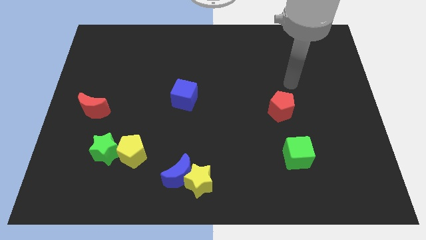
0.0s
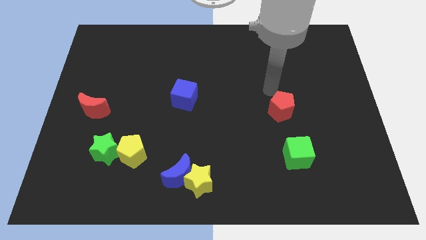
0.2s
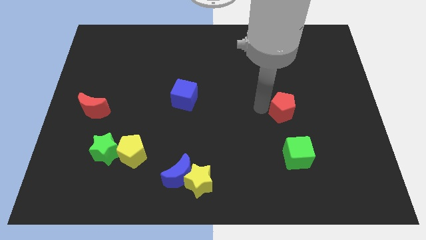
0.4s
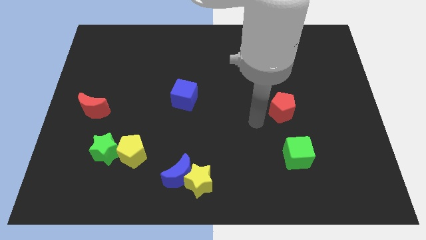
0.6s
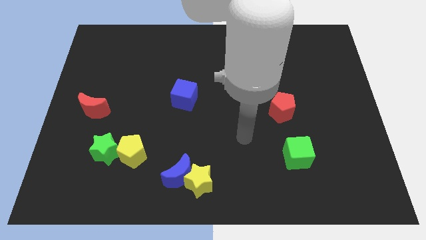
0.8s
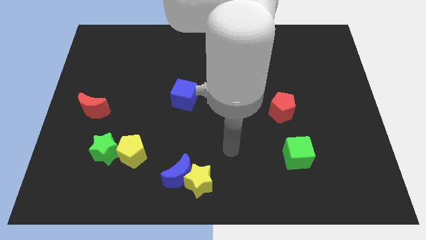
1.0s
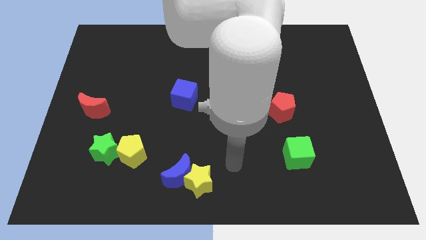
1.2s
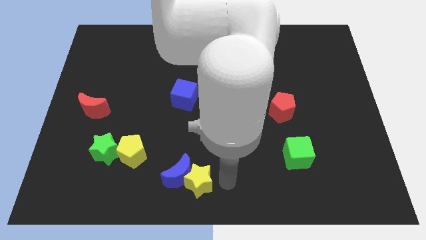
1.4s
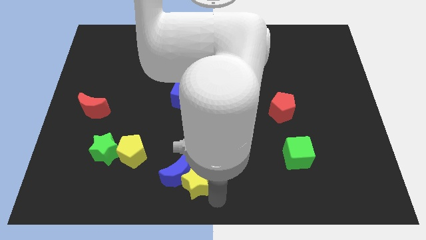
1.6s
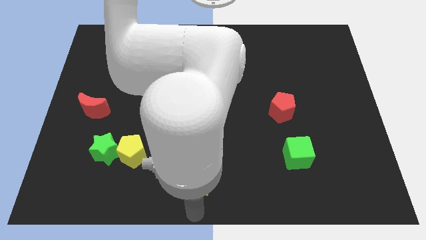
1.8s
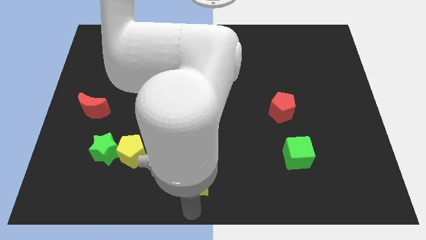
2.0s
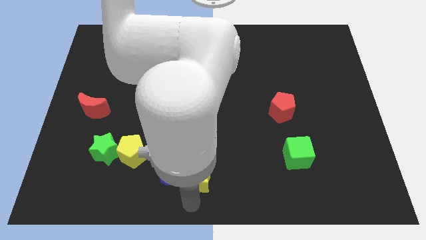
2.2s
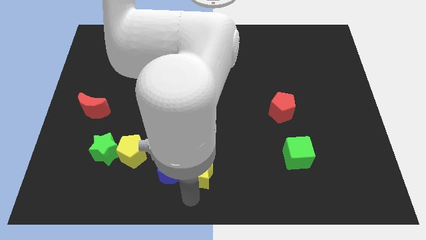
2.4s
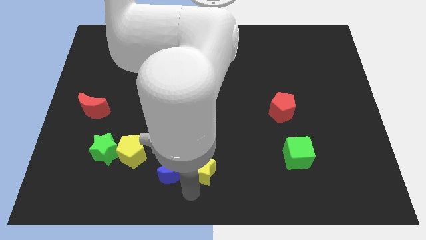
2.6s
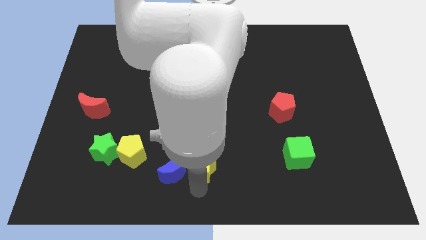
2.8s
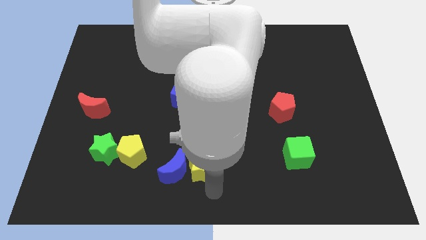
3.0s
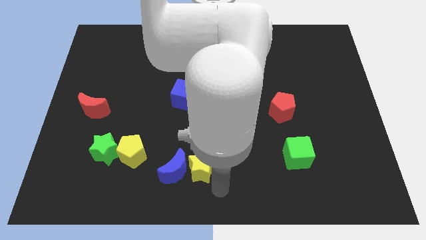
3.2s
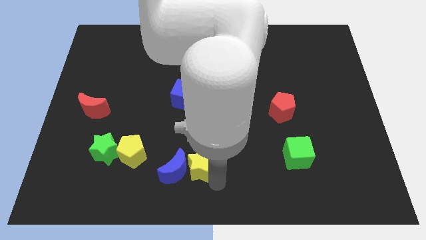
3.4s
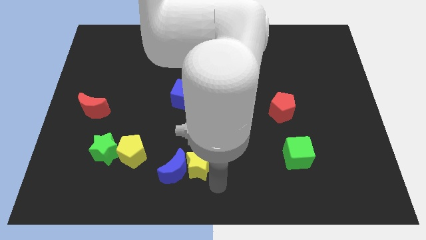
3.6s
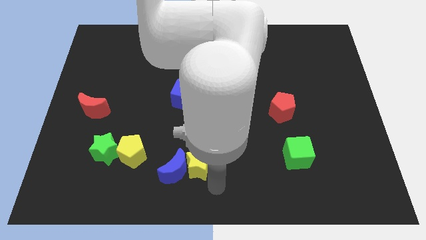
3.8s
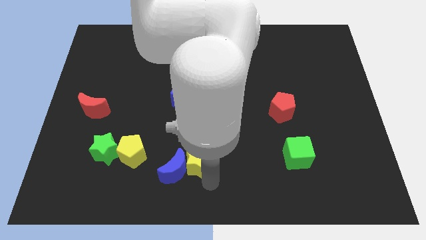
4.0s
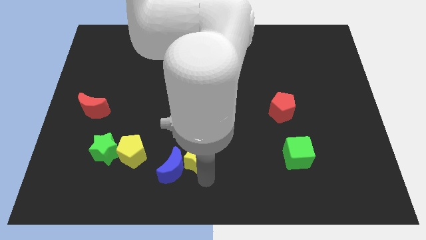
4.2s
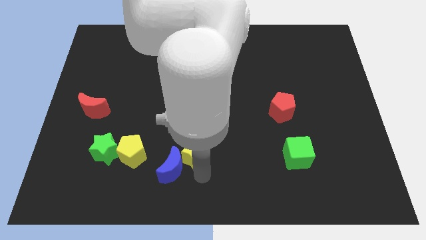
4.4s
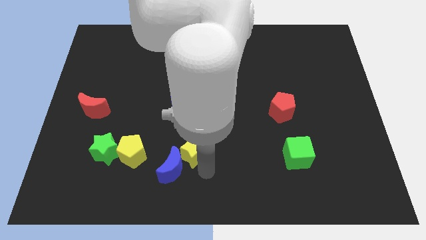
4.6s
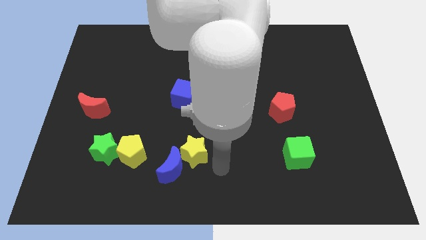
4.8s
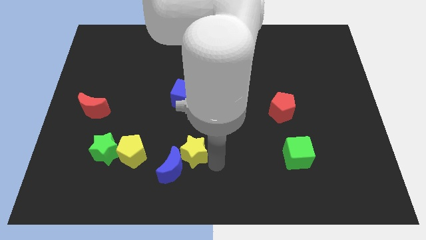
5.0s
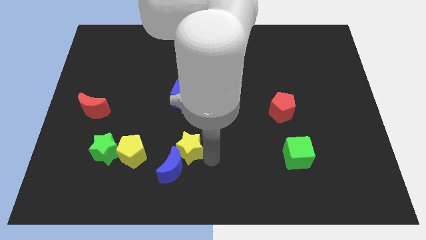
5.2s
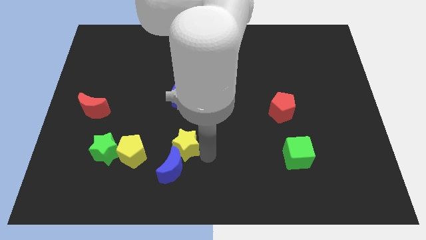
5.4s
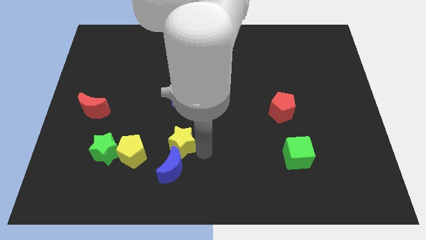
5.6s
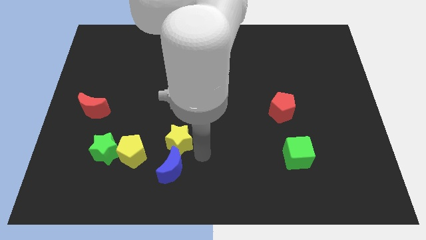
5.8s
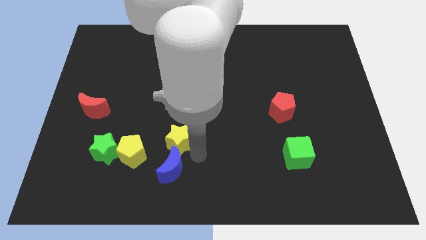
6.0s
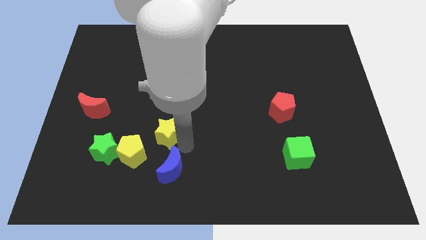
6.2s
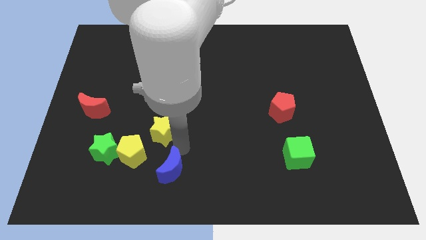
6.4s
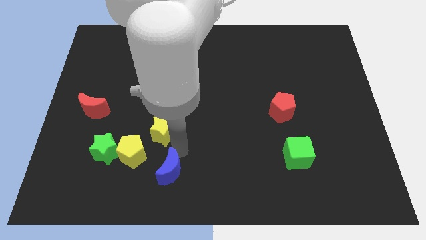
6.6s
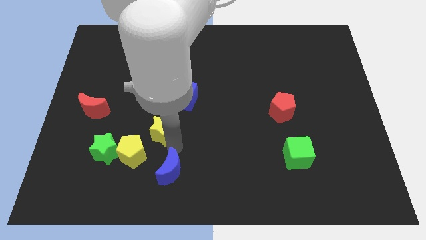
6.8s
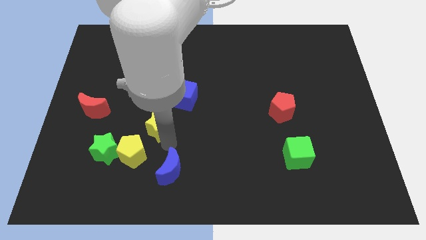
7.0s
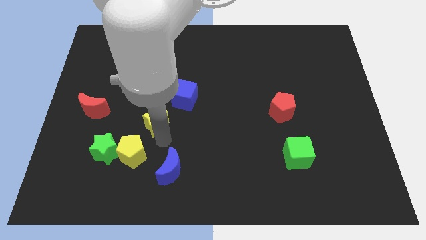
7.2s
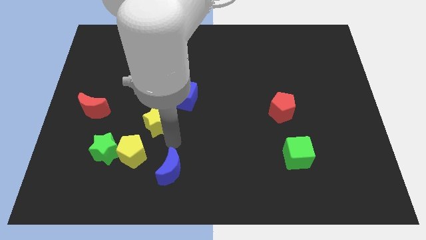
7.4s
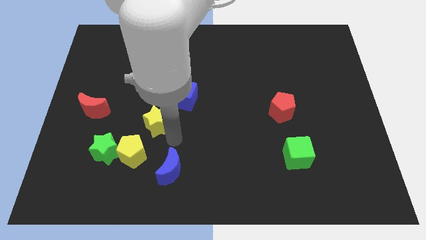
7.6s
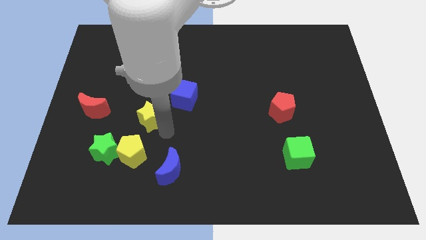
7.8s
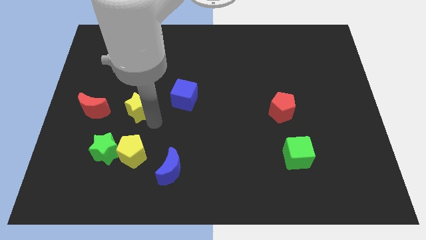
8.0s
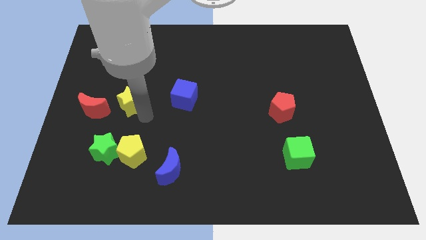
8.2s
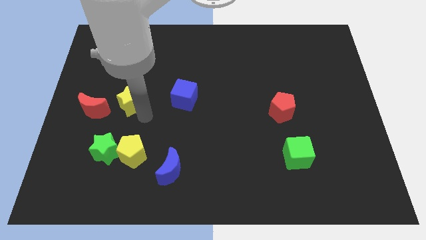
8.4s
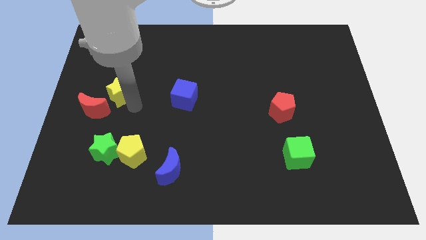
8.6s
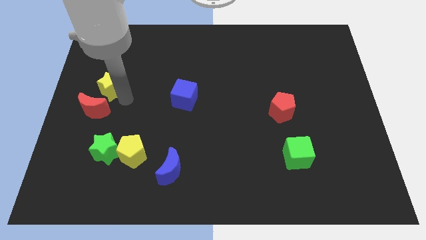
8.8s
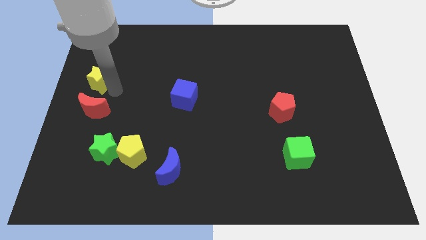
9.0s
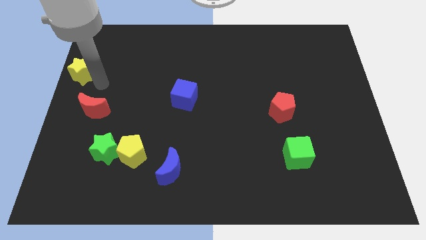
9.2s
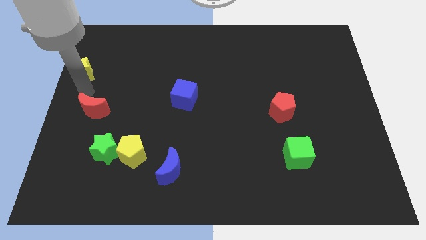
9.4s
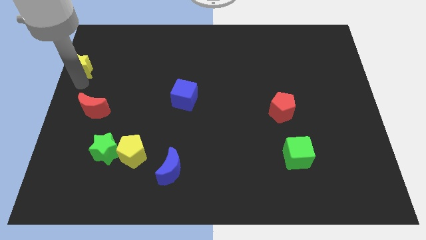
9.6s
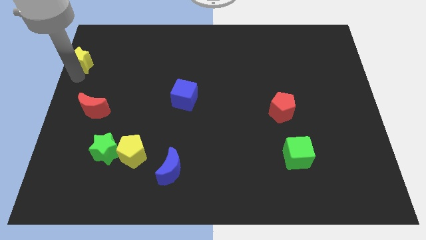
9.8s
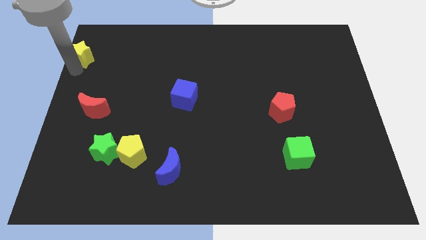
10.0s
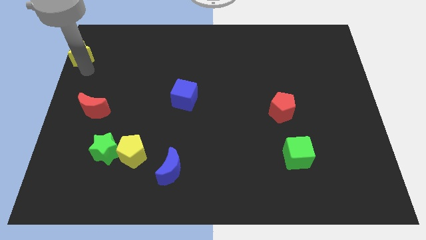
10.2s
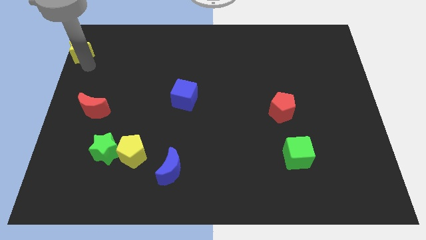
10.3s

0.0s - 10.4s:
move the yellow star to the upper left corner

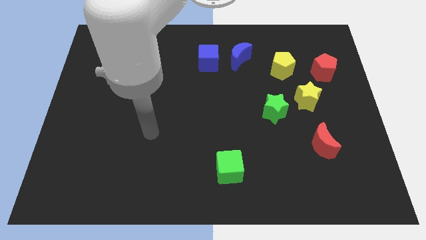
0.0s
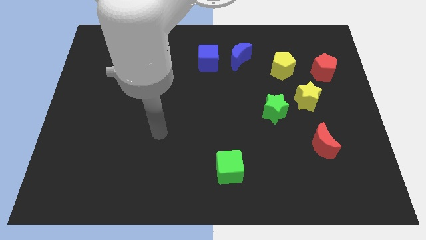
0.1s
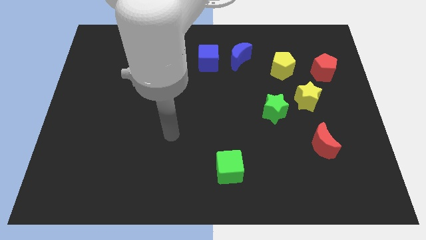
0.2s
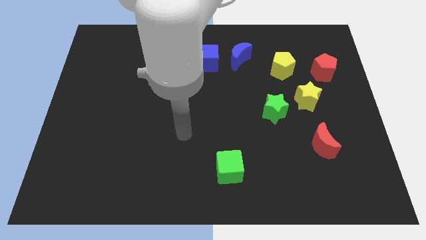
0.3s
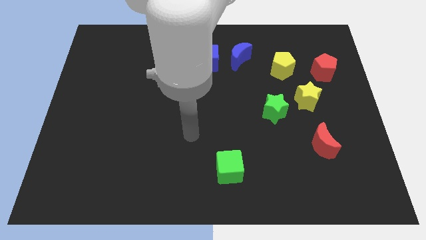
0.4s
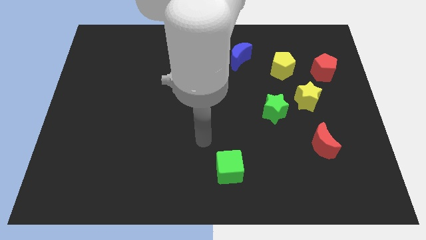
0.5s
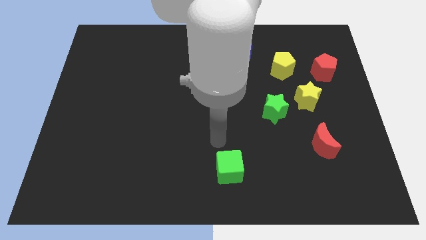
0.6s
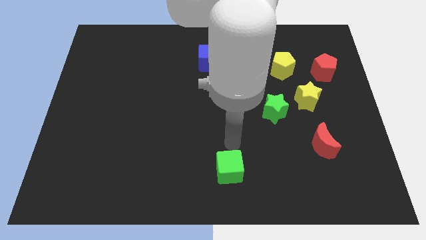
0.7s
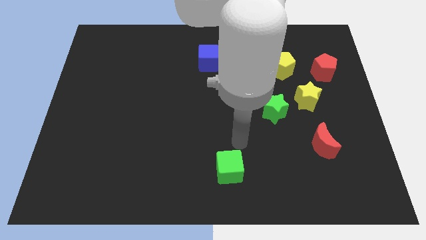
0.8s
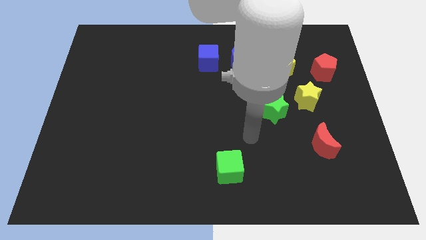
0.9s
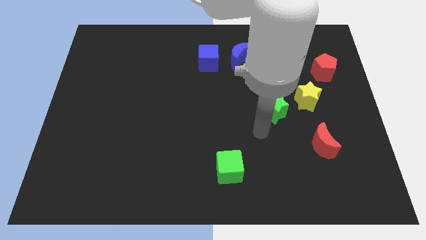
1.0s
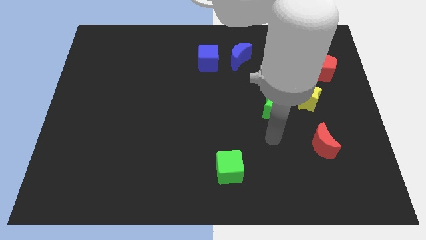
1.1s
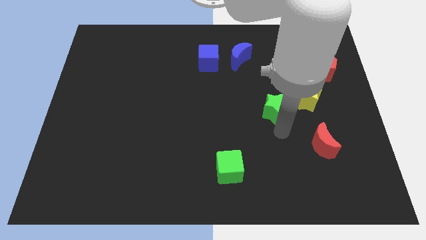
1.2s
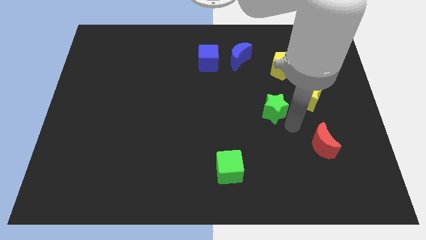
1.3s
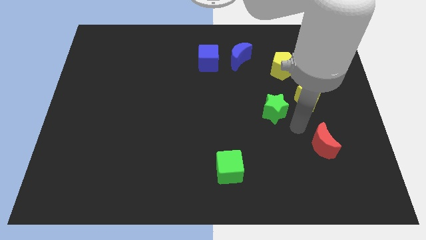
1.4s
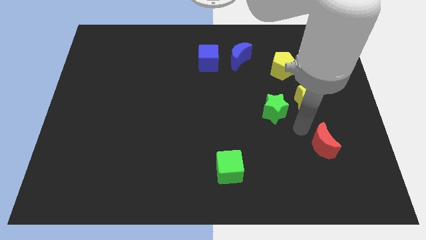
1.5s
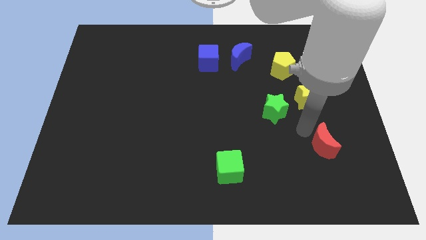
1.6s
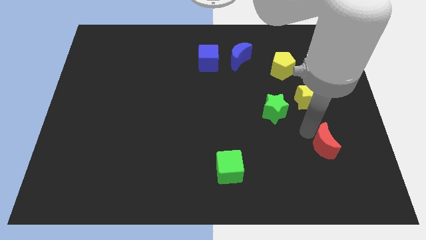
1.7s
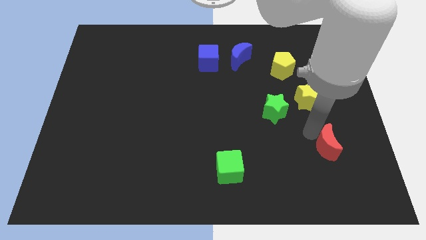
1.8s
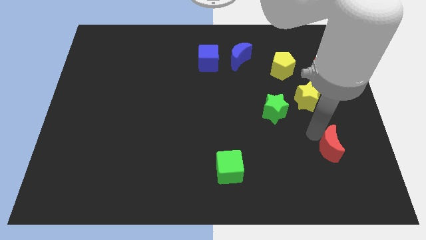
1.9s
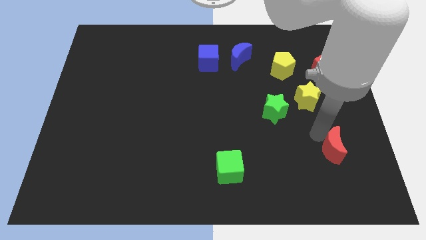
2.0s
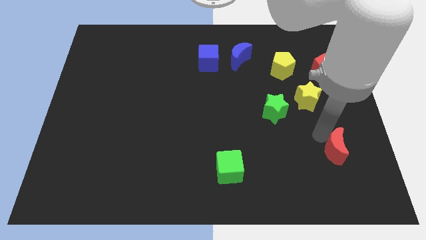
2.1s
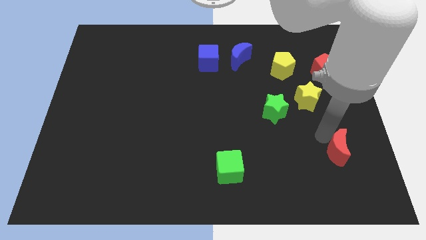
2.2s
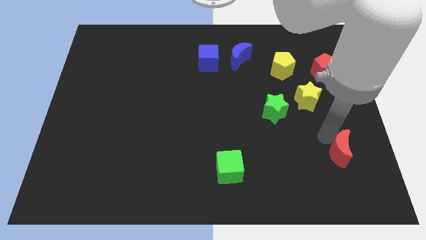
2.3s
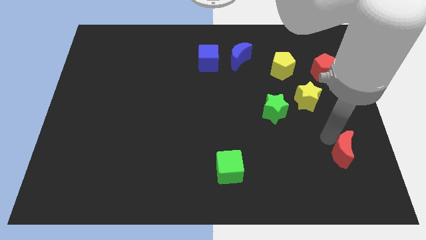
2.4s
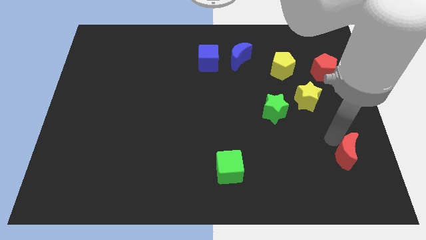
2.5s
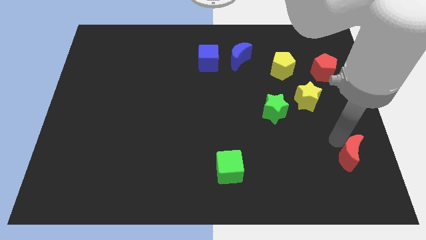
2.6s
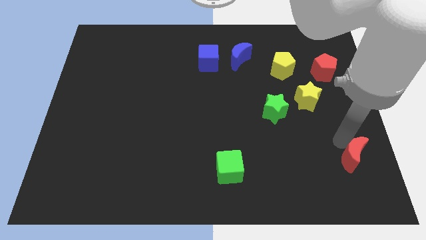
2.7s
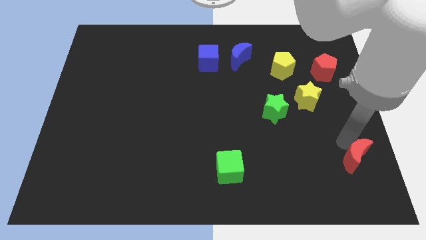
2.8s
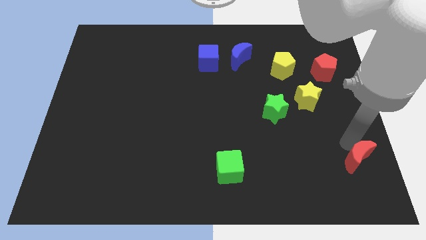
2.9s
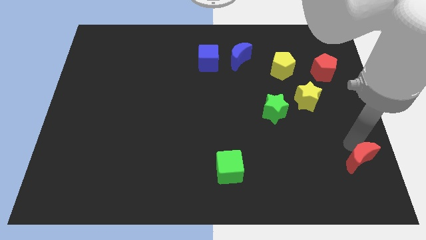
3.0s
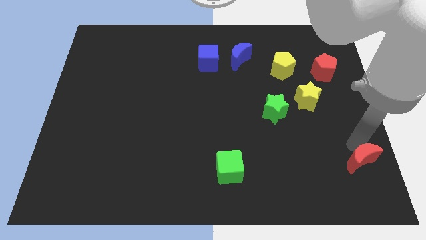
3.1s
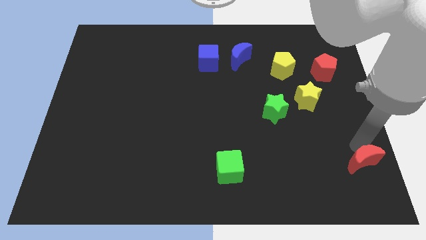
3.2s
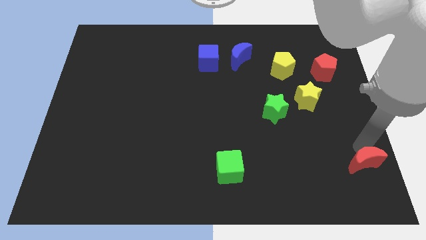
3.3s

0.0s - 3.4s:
move the red moon to the bottom right of the board
